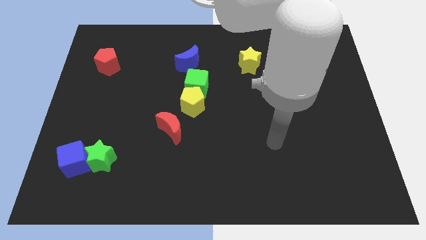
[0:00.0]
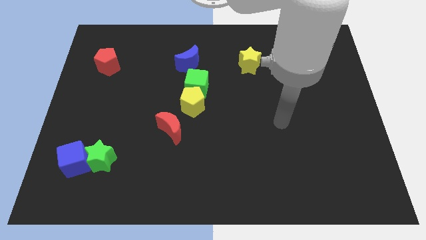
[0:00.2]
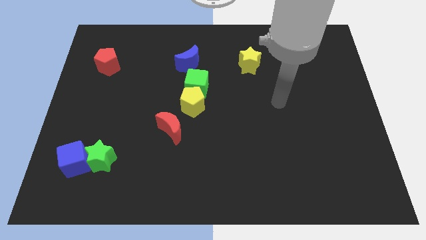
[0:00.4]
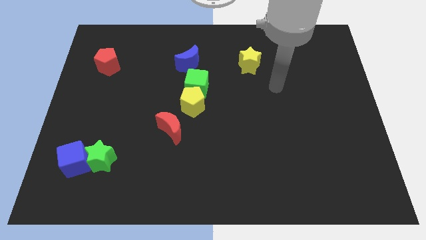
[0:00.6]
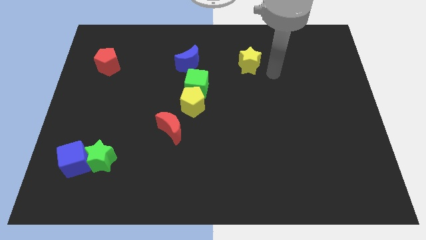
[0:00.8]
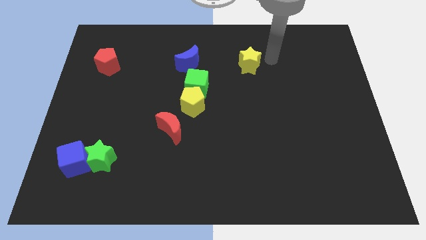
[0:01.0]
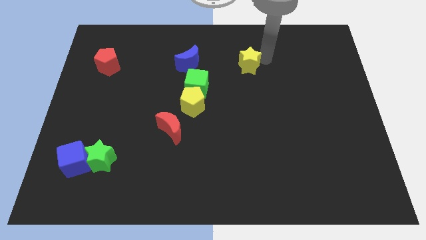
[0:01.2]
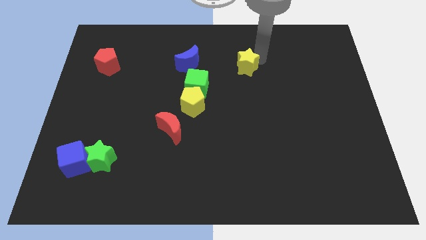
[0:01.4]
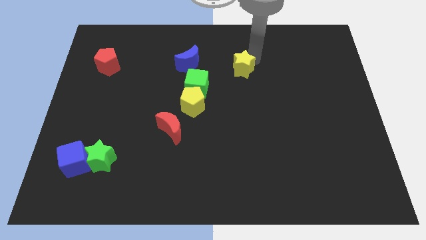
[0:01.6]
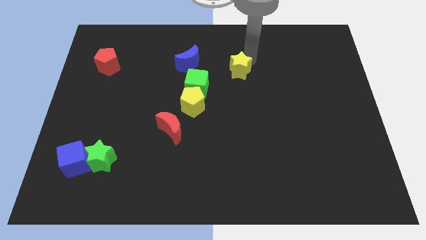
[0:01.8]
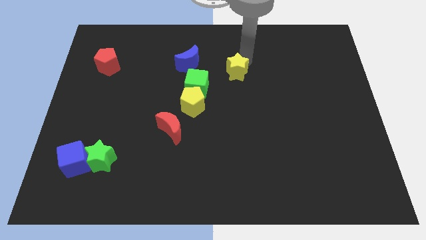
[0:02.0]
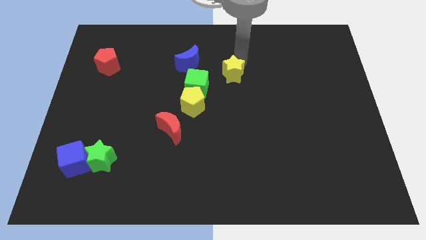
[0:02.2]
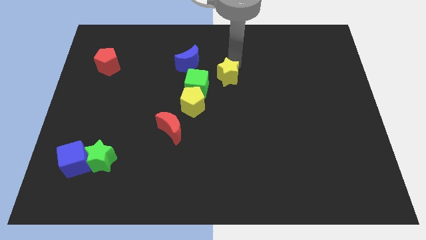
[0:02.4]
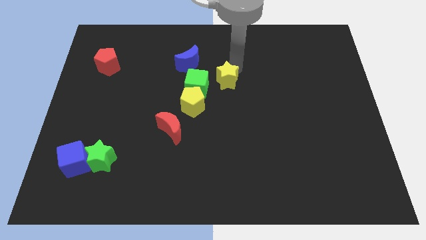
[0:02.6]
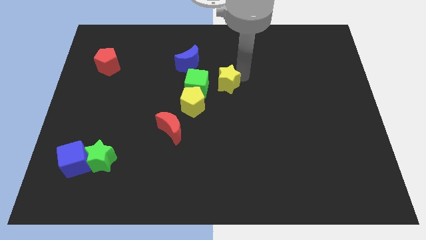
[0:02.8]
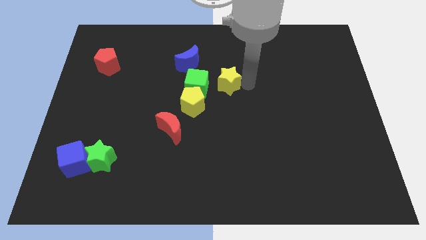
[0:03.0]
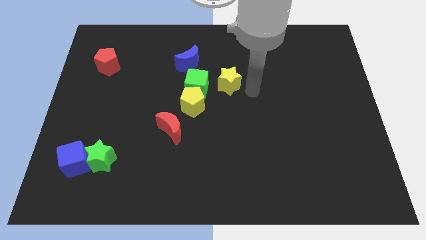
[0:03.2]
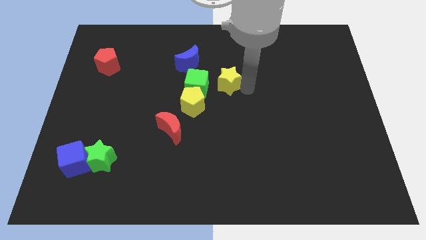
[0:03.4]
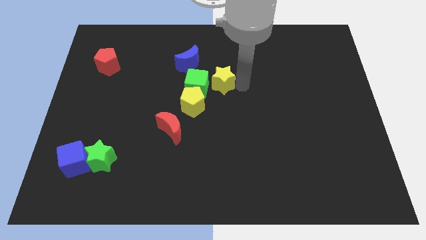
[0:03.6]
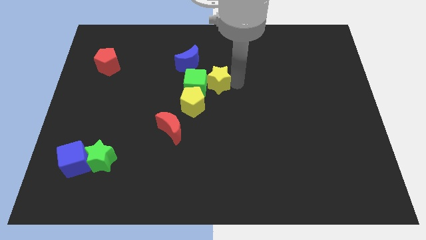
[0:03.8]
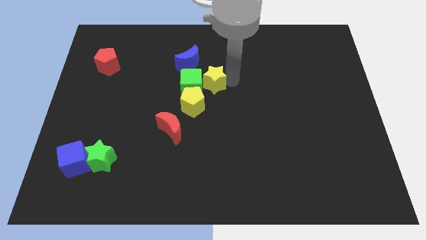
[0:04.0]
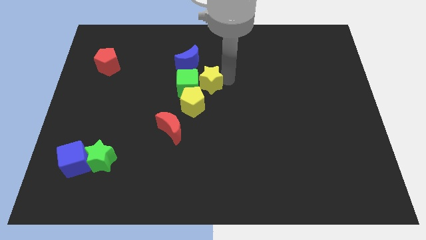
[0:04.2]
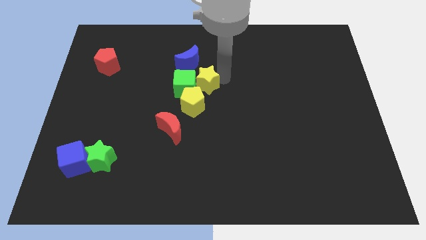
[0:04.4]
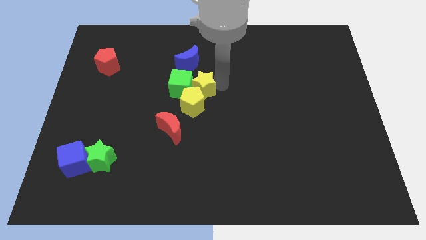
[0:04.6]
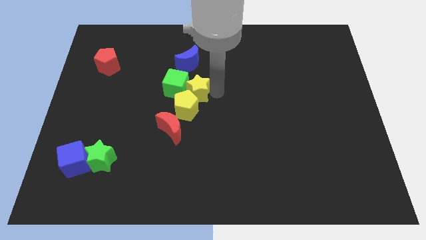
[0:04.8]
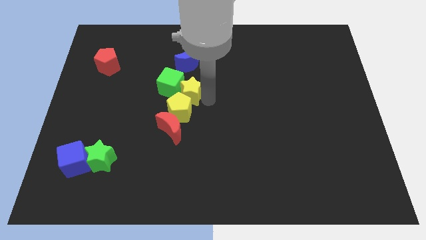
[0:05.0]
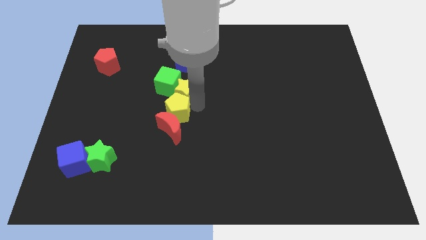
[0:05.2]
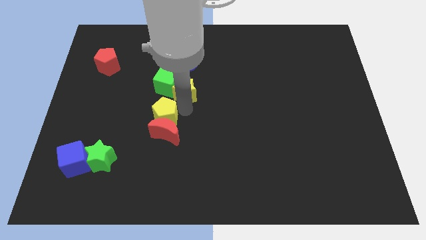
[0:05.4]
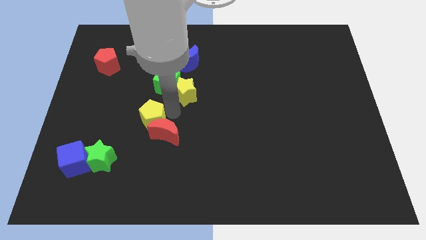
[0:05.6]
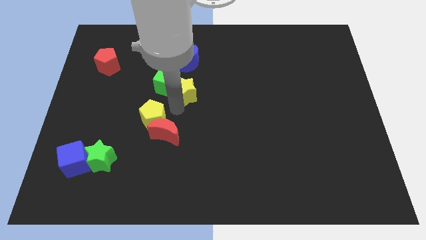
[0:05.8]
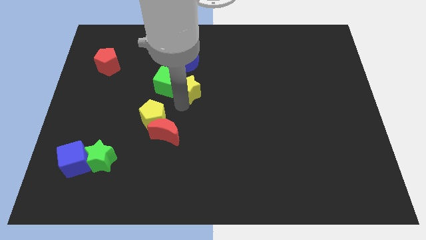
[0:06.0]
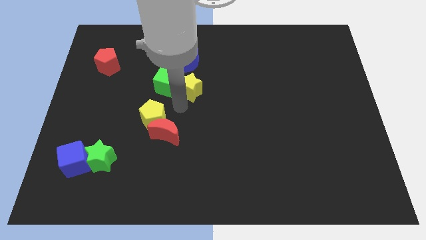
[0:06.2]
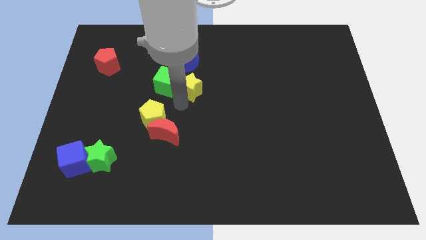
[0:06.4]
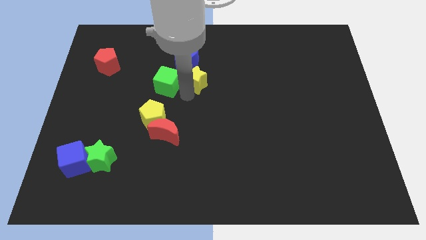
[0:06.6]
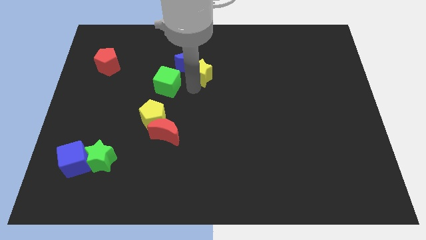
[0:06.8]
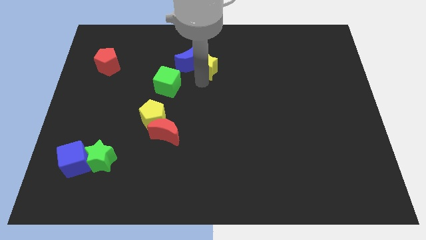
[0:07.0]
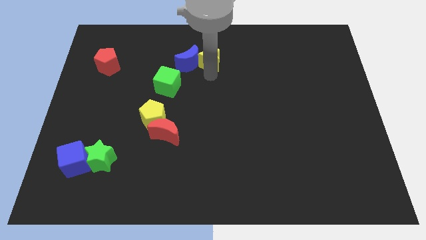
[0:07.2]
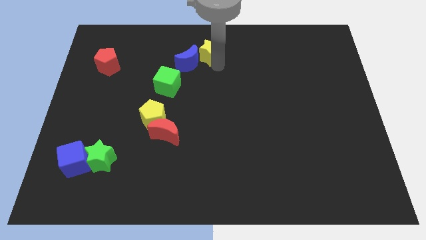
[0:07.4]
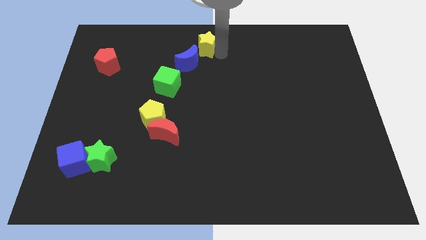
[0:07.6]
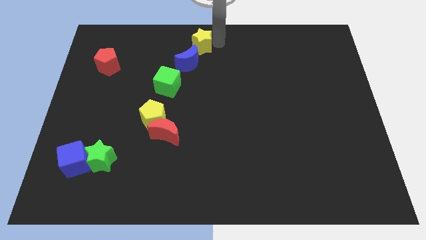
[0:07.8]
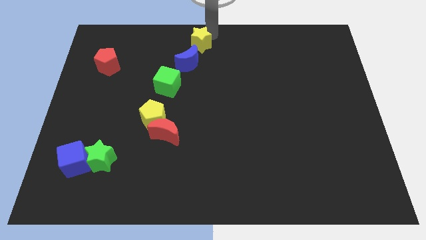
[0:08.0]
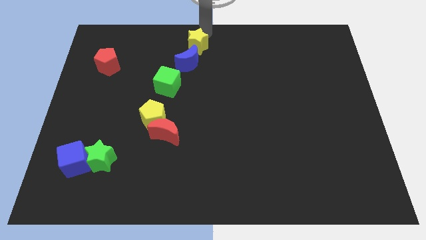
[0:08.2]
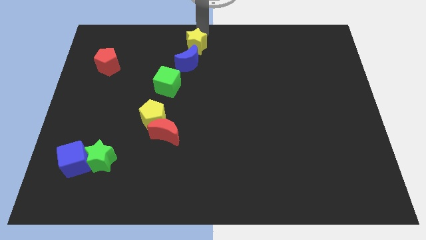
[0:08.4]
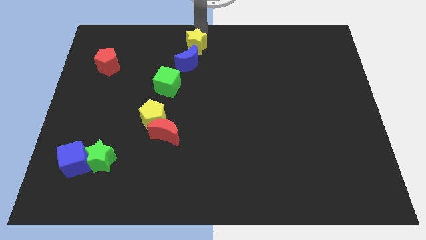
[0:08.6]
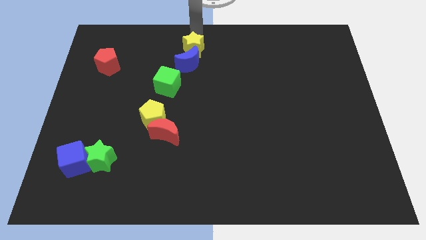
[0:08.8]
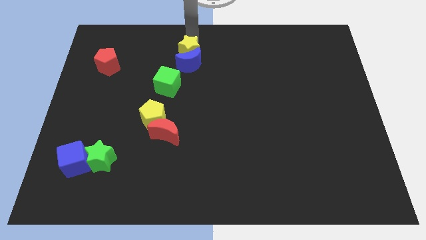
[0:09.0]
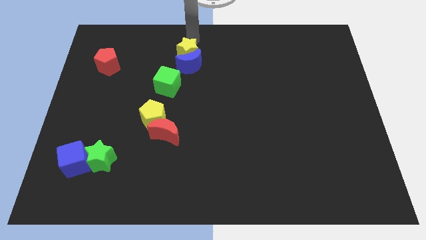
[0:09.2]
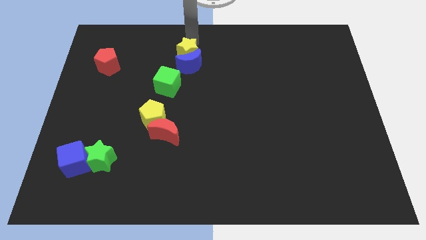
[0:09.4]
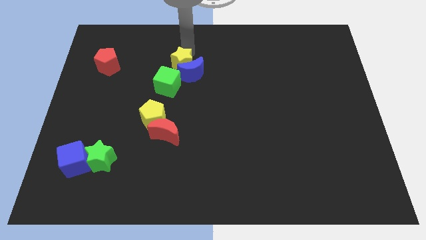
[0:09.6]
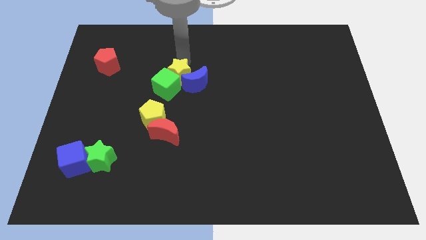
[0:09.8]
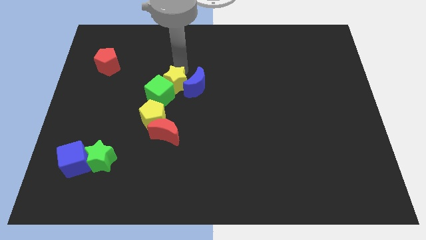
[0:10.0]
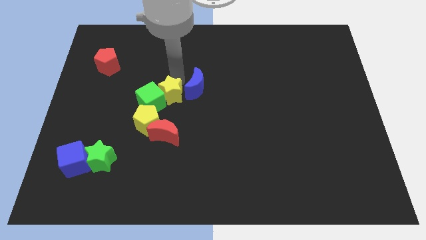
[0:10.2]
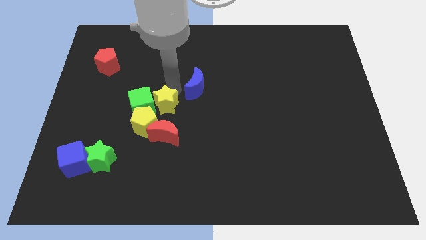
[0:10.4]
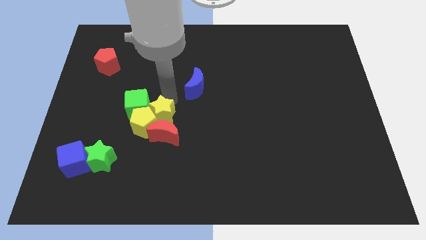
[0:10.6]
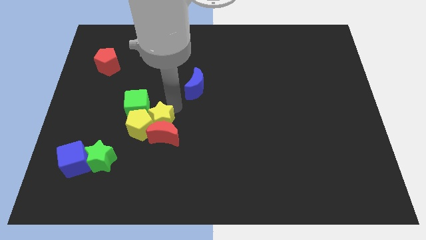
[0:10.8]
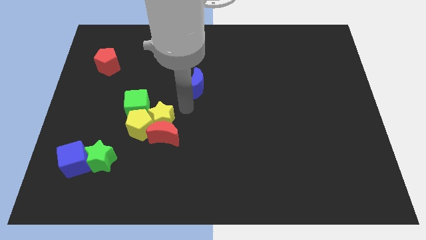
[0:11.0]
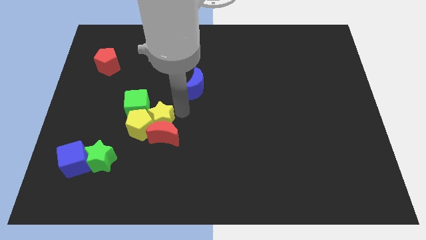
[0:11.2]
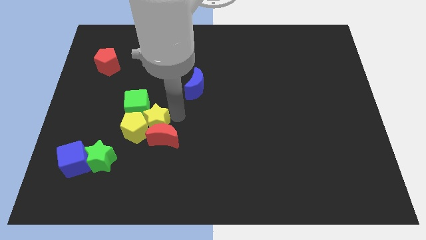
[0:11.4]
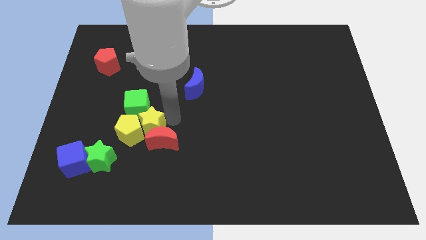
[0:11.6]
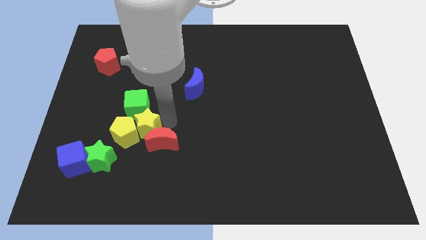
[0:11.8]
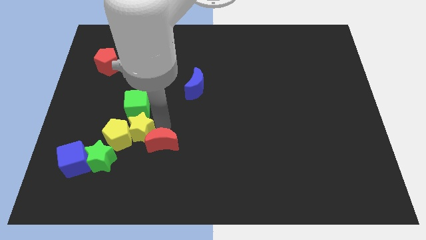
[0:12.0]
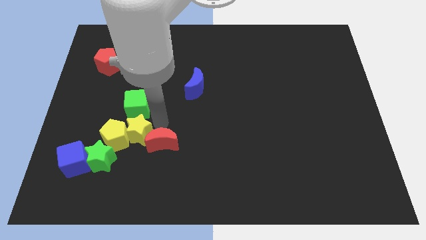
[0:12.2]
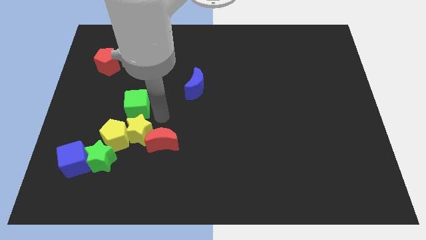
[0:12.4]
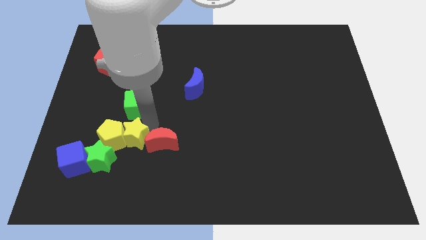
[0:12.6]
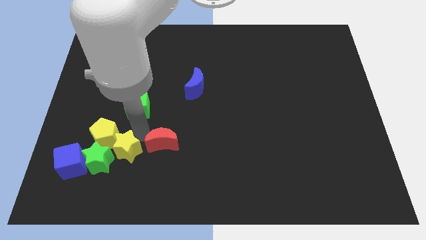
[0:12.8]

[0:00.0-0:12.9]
push the yellow star close to the green star

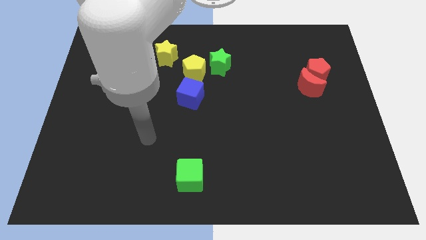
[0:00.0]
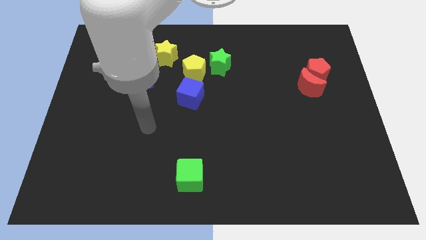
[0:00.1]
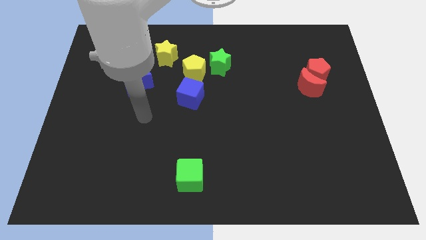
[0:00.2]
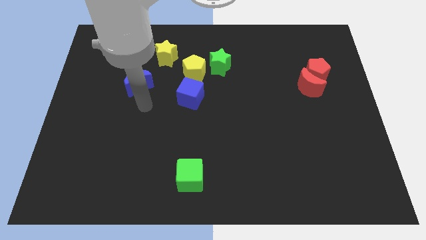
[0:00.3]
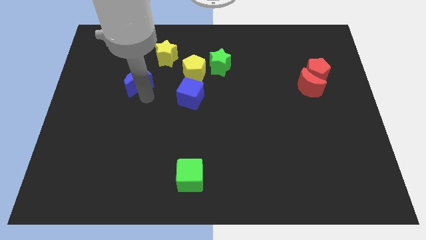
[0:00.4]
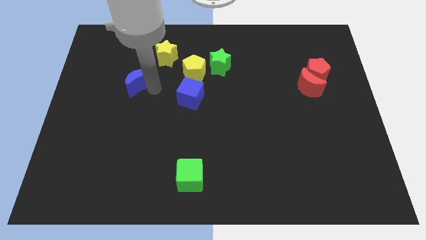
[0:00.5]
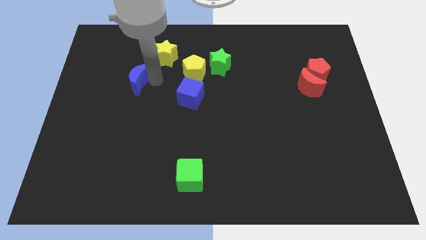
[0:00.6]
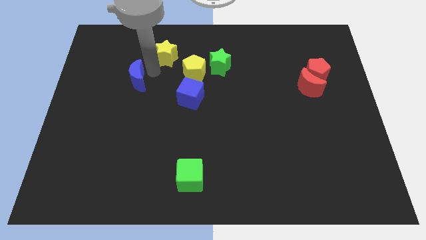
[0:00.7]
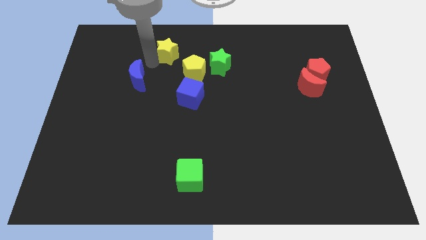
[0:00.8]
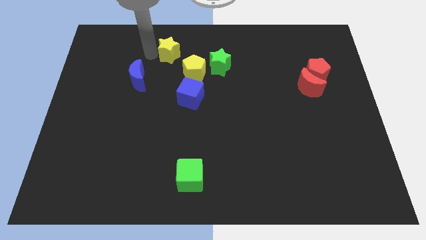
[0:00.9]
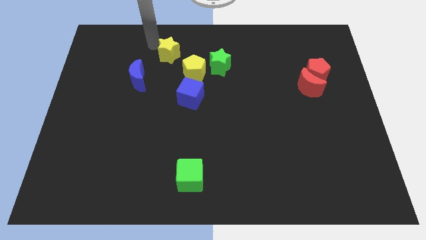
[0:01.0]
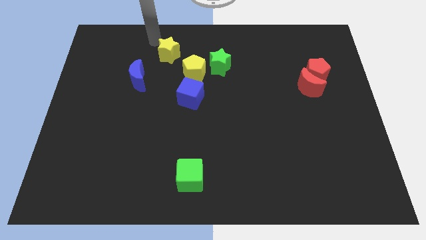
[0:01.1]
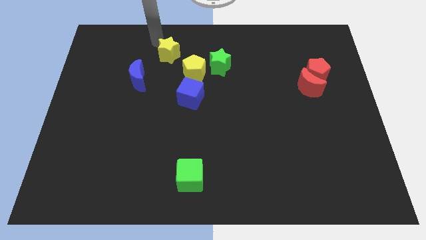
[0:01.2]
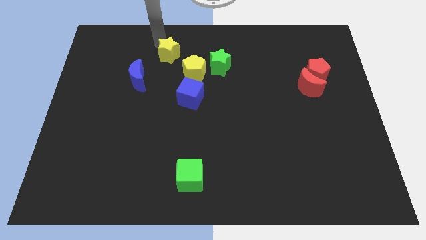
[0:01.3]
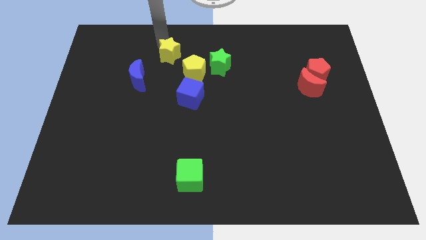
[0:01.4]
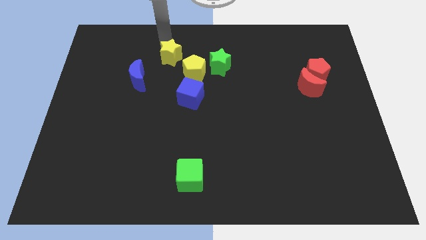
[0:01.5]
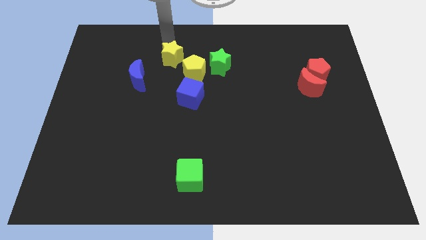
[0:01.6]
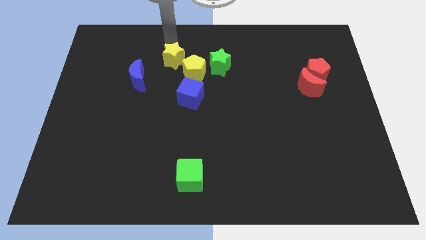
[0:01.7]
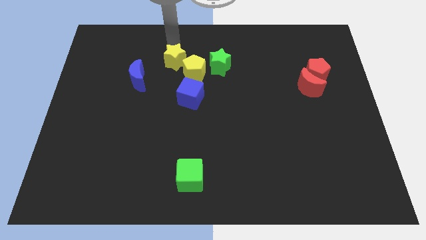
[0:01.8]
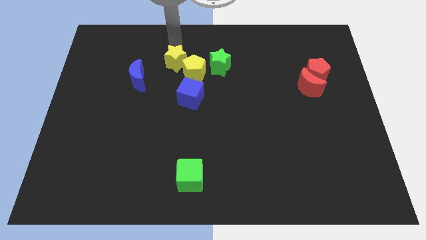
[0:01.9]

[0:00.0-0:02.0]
push the yellow star next to the yellow pentagon
